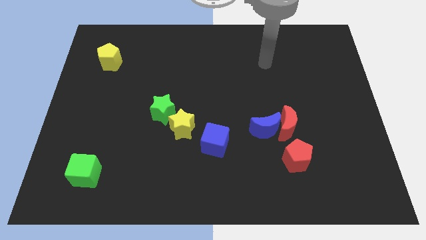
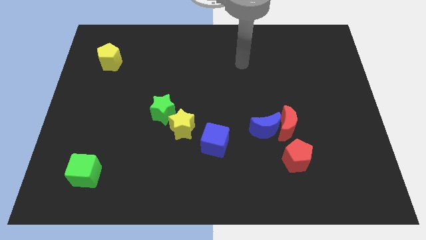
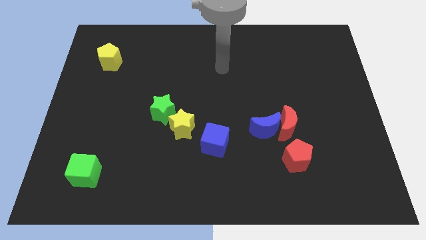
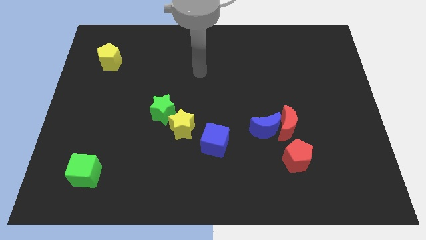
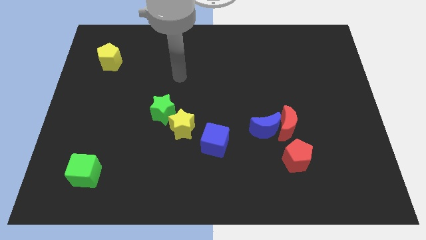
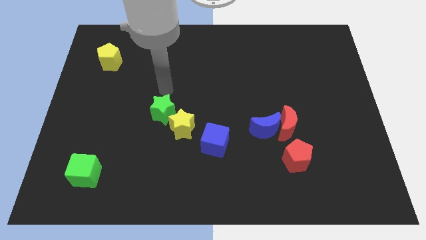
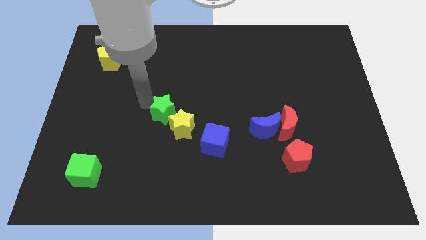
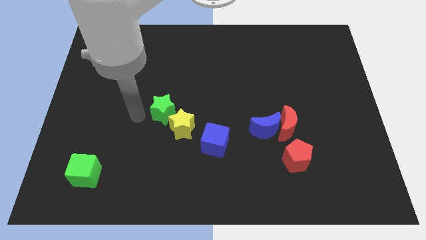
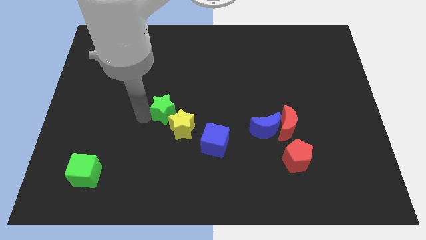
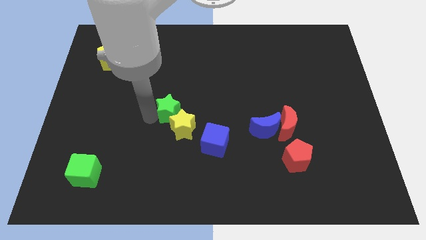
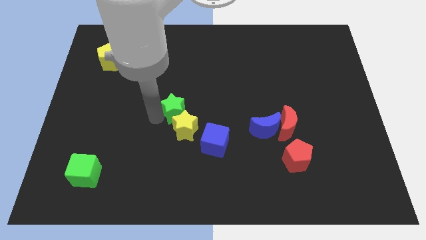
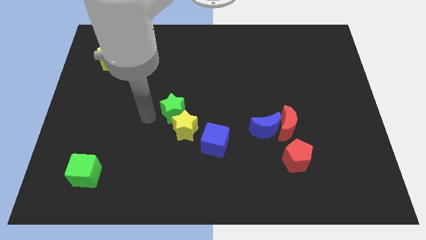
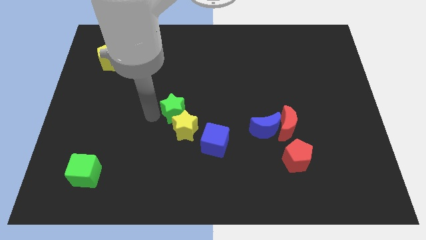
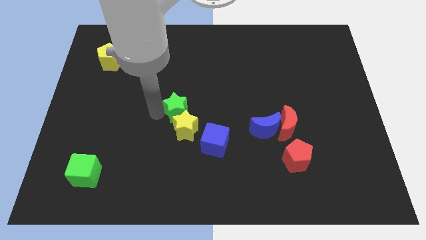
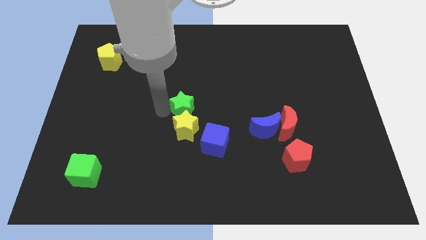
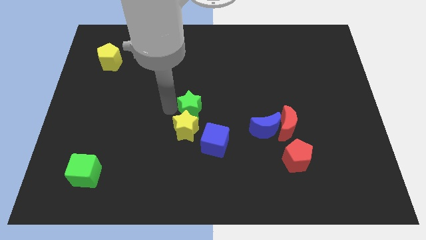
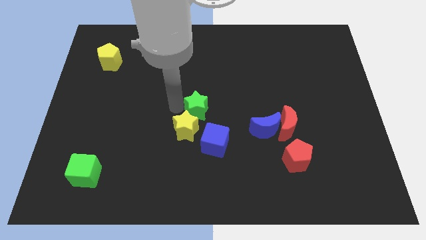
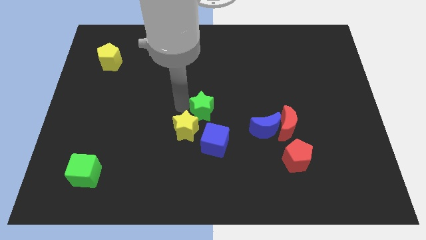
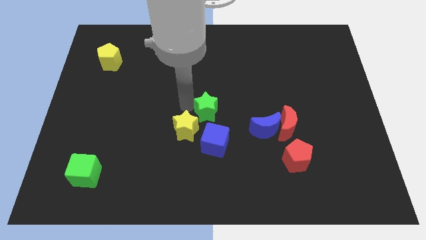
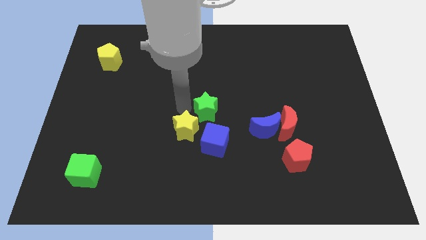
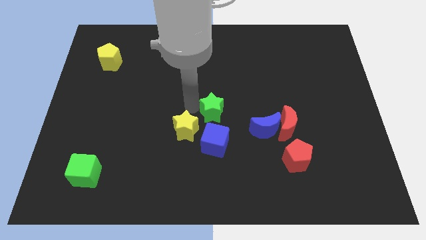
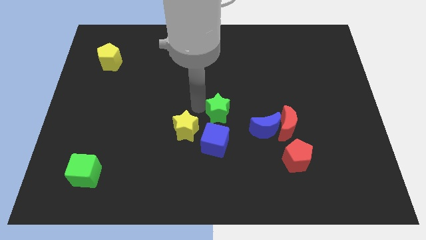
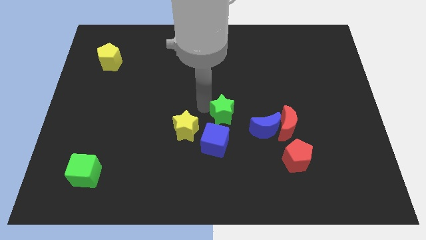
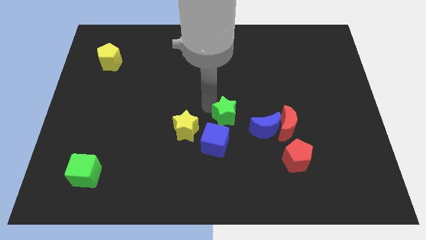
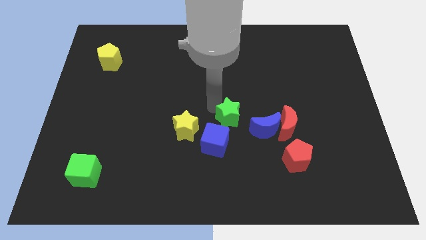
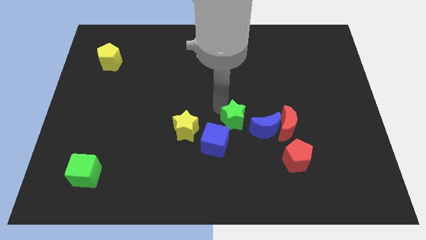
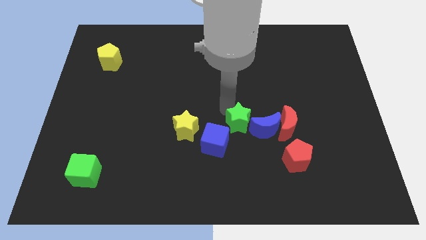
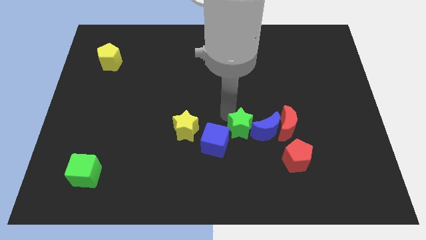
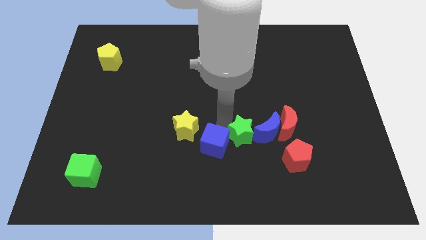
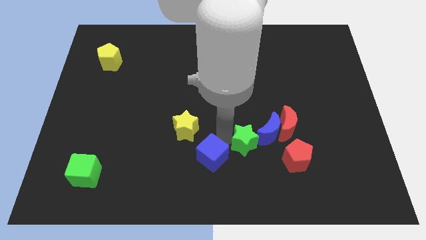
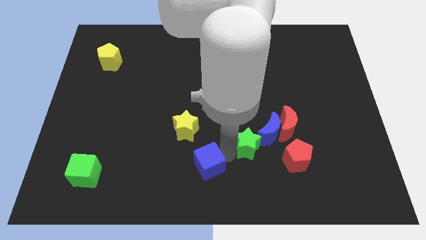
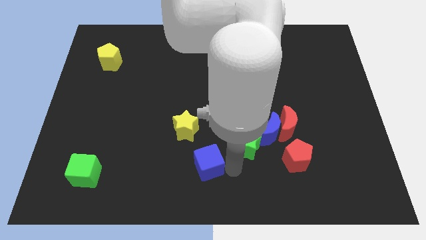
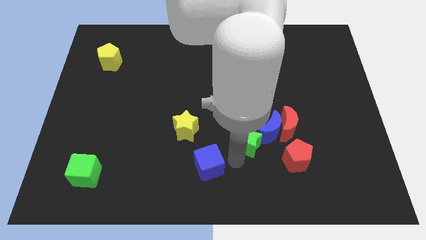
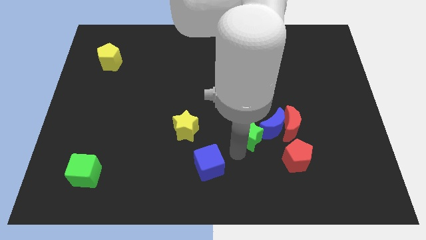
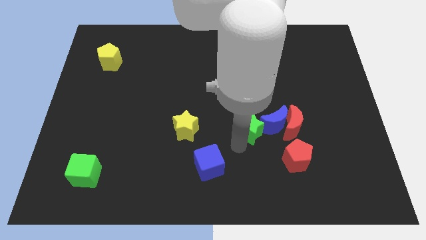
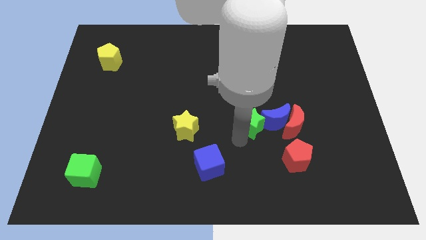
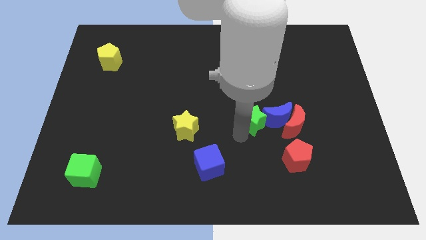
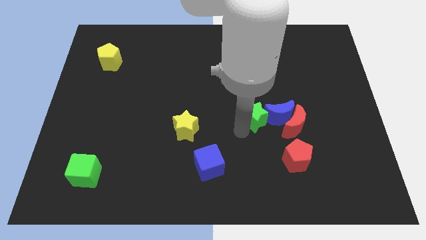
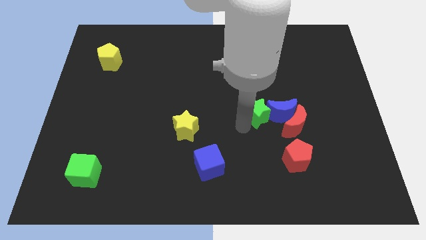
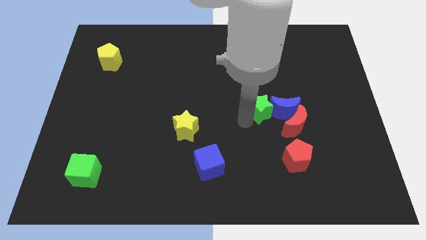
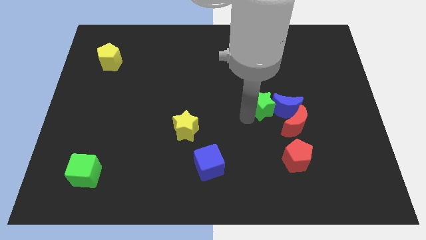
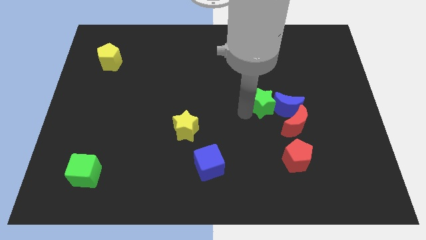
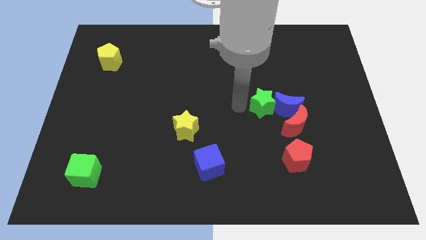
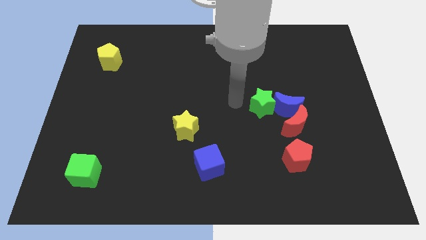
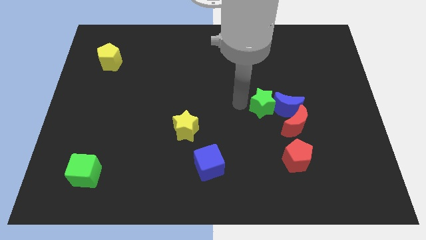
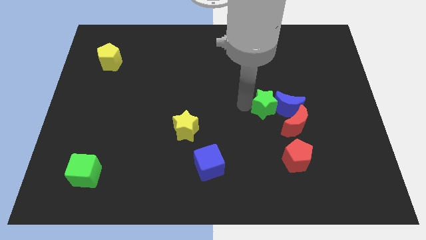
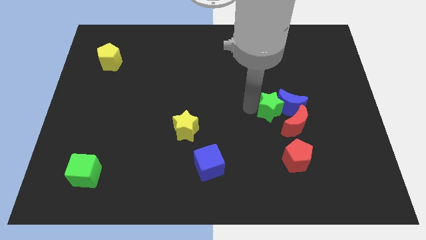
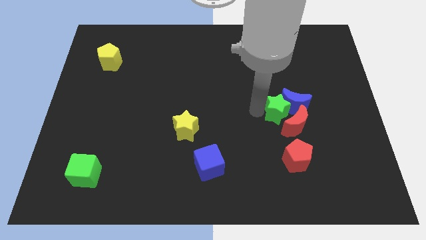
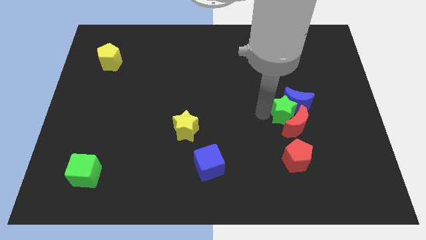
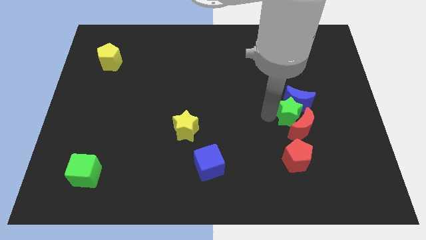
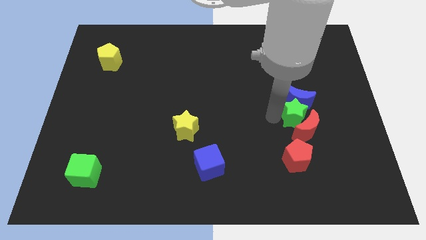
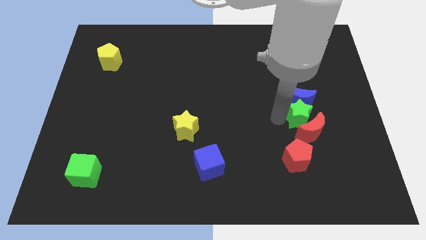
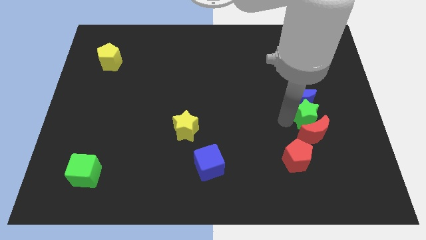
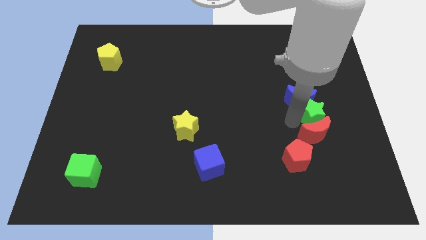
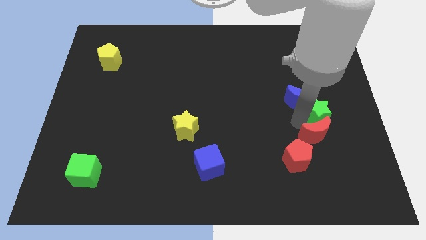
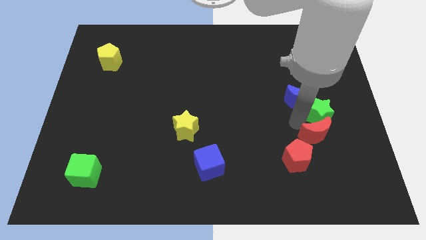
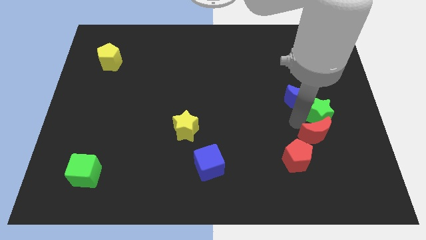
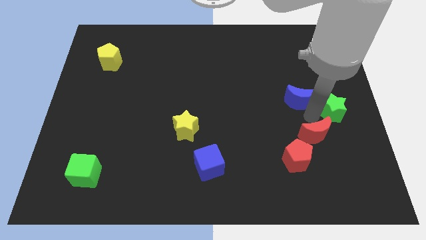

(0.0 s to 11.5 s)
put the green star to the center right
